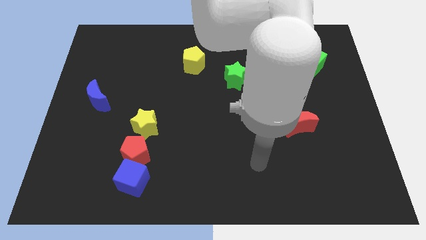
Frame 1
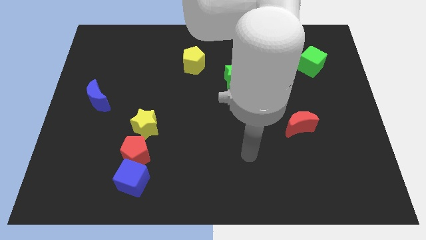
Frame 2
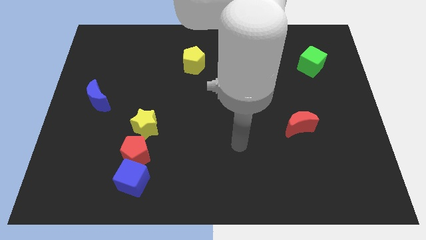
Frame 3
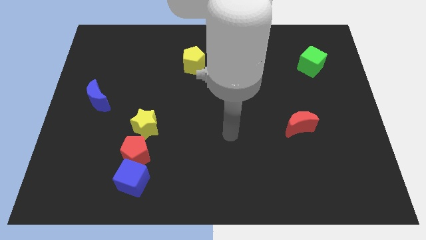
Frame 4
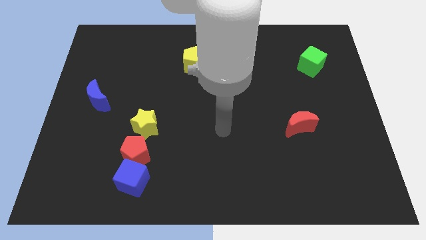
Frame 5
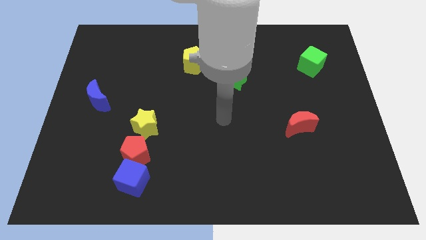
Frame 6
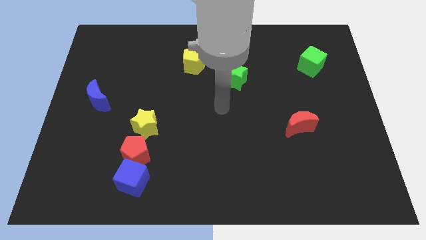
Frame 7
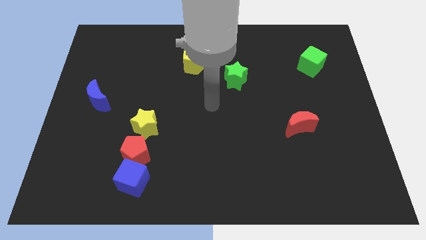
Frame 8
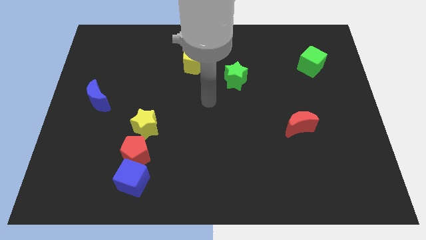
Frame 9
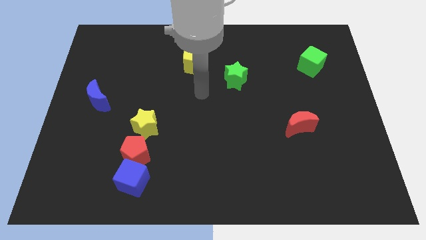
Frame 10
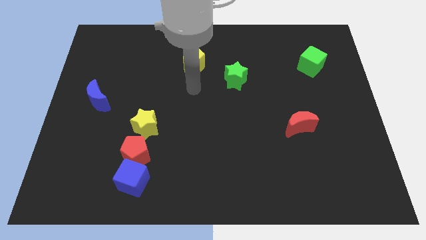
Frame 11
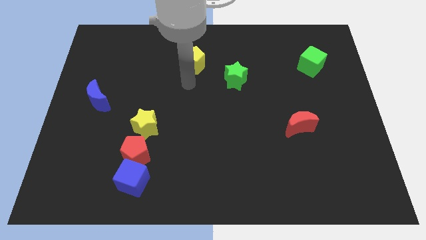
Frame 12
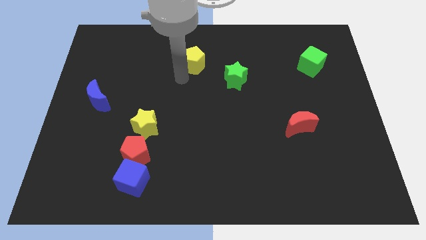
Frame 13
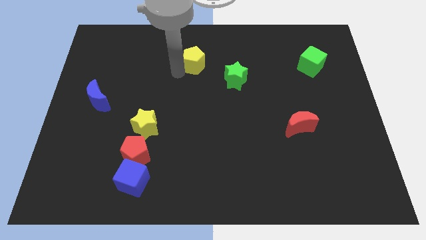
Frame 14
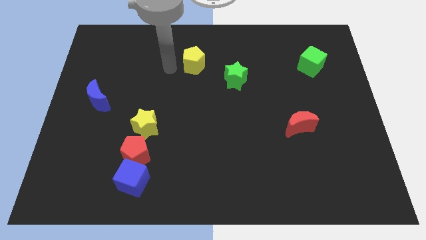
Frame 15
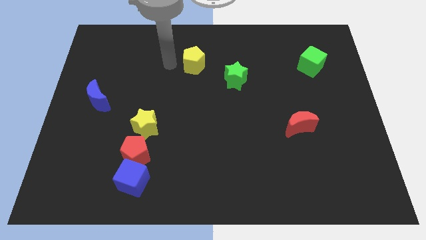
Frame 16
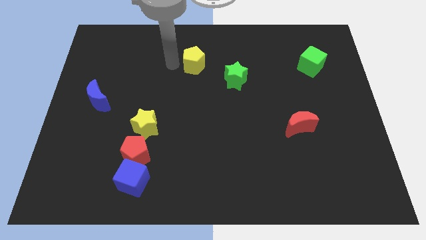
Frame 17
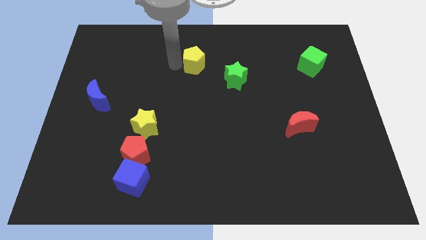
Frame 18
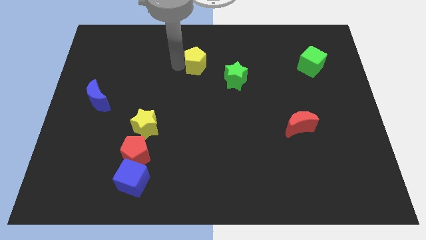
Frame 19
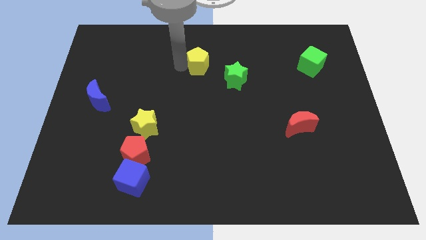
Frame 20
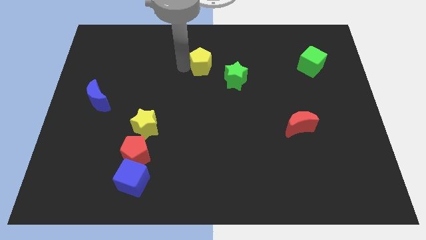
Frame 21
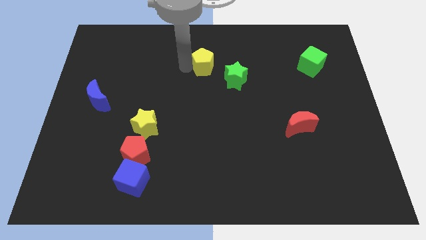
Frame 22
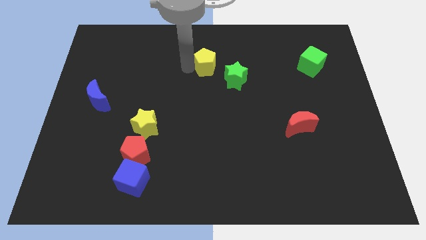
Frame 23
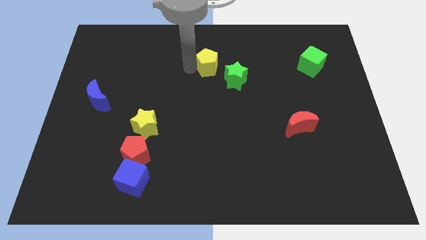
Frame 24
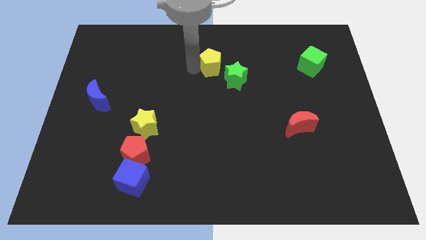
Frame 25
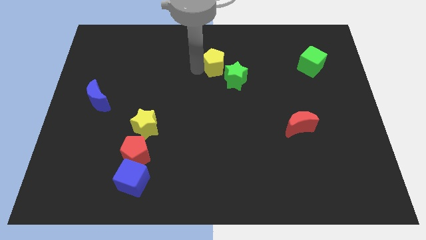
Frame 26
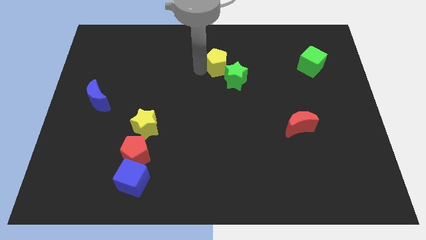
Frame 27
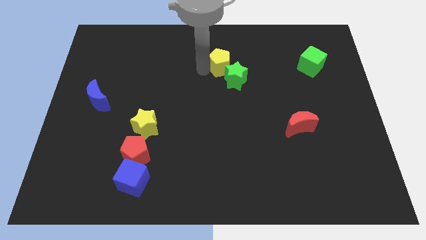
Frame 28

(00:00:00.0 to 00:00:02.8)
push the yellow pentagon a little right

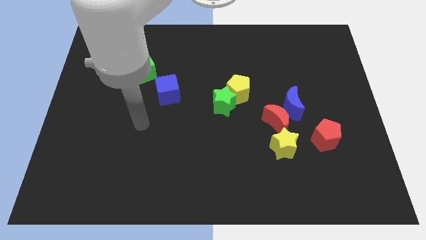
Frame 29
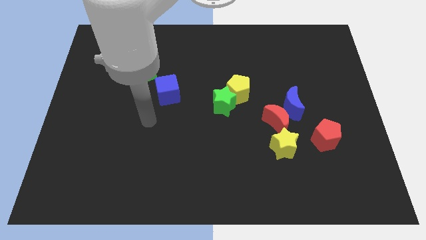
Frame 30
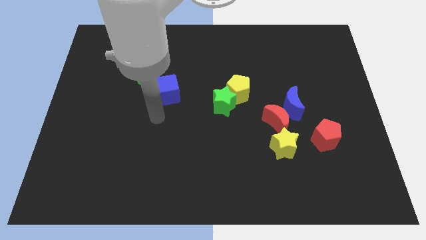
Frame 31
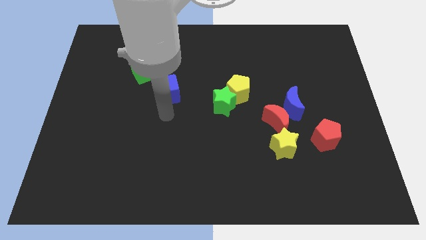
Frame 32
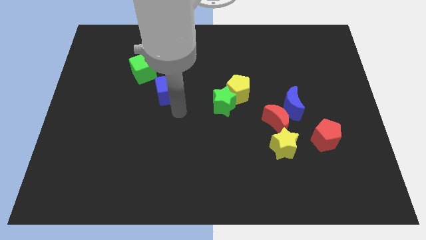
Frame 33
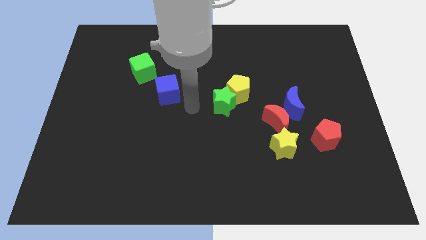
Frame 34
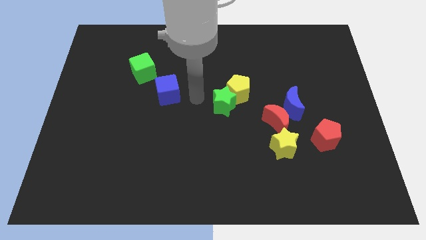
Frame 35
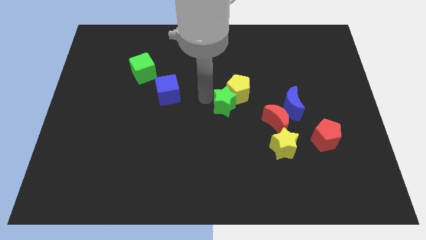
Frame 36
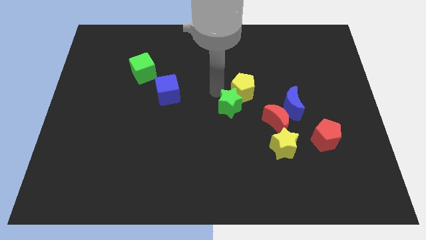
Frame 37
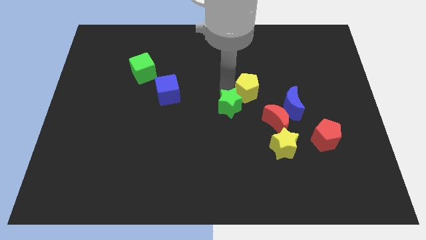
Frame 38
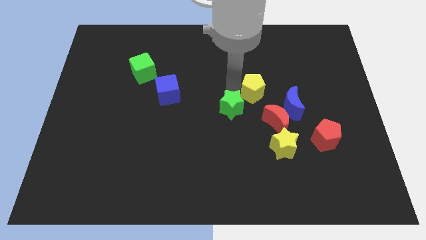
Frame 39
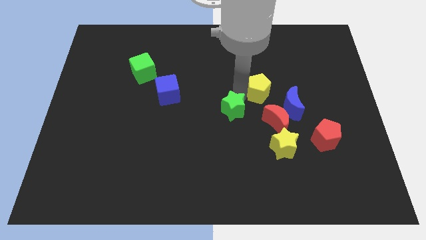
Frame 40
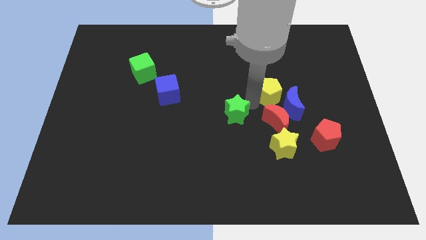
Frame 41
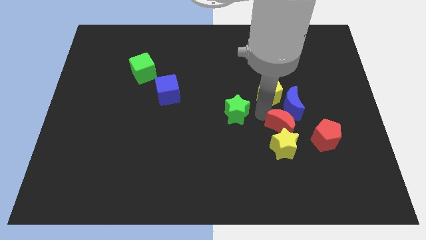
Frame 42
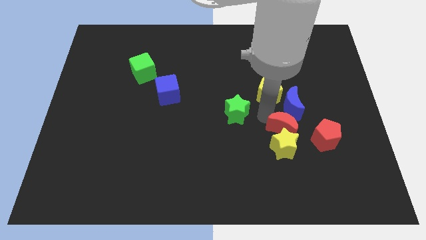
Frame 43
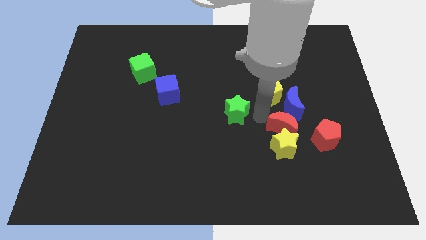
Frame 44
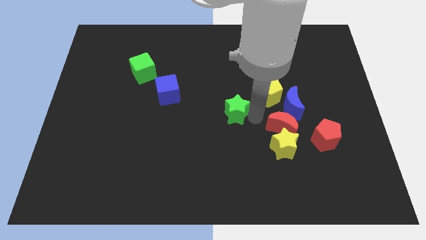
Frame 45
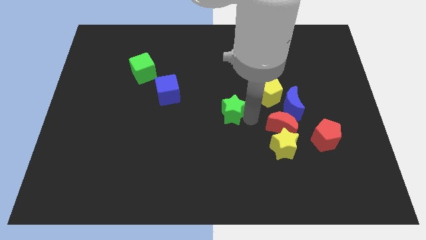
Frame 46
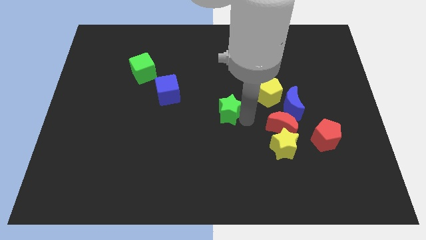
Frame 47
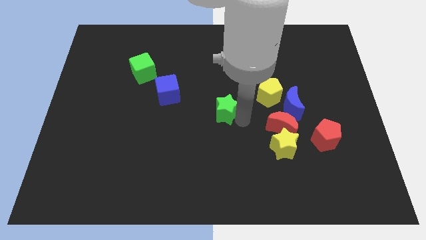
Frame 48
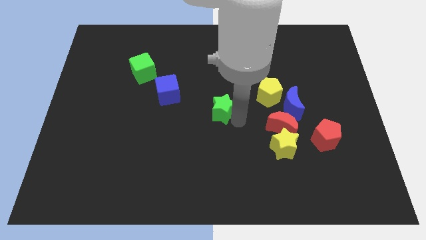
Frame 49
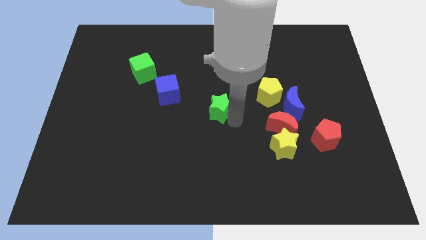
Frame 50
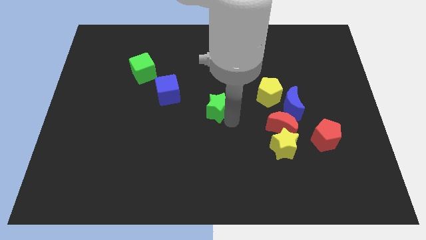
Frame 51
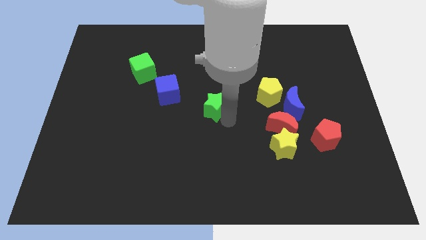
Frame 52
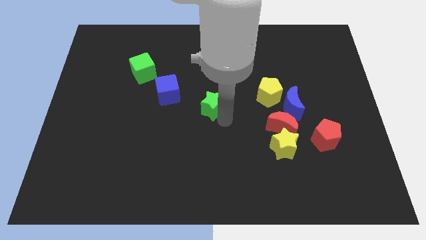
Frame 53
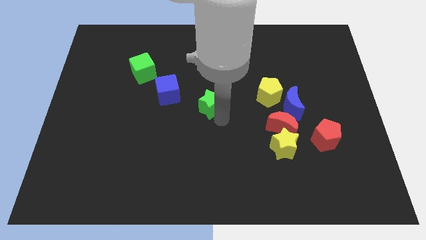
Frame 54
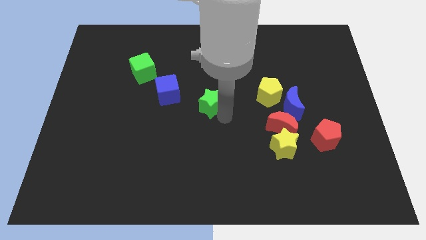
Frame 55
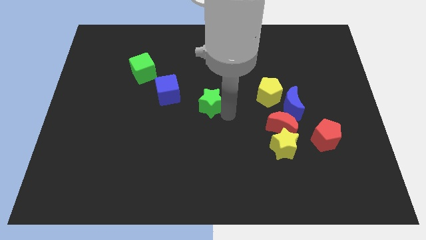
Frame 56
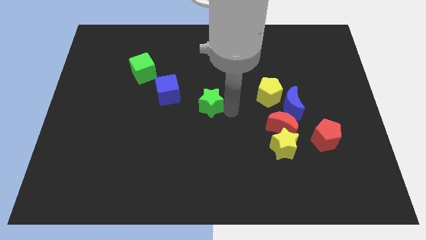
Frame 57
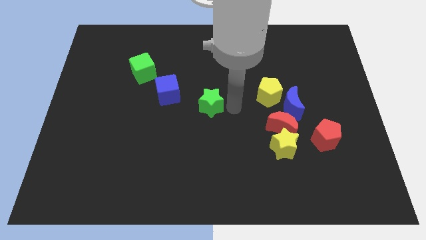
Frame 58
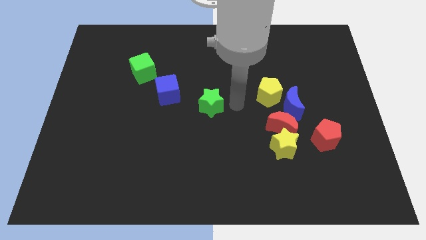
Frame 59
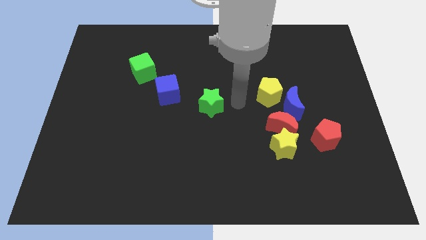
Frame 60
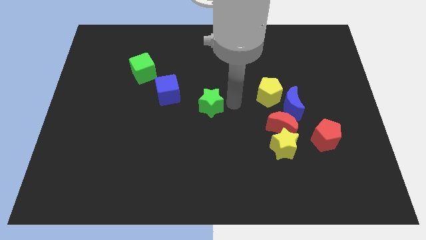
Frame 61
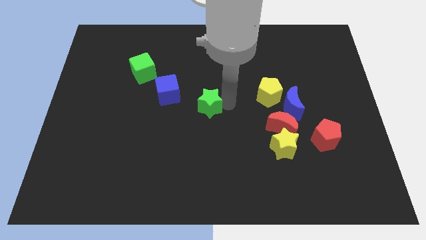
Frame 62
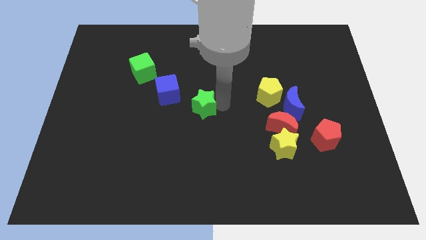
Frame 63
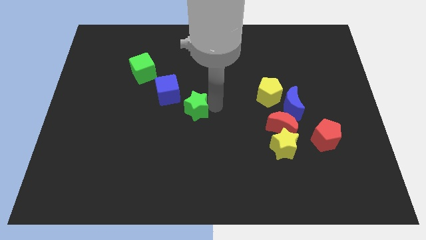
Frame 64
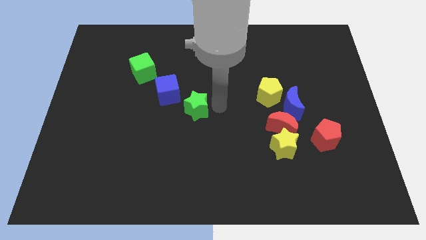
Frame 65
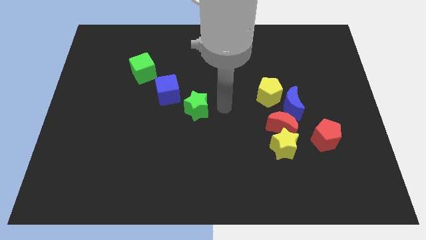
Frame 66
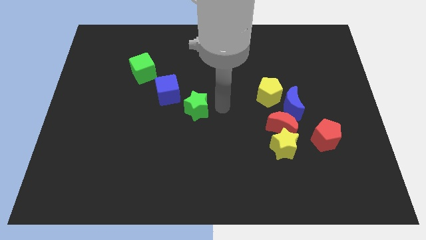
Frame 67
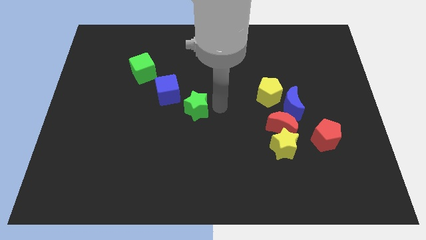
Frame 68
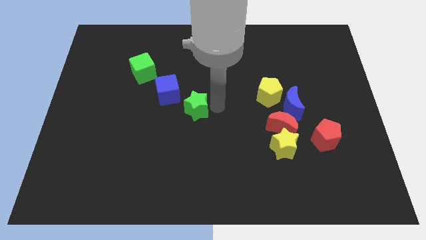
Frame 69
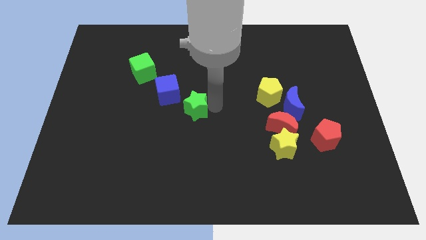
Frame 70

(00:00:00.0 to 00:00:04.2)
slightly slide the green star left

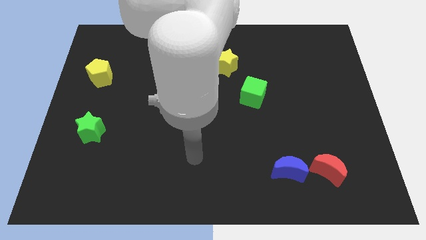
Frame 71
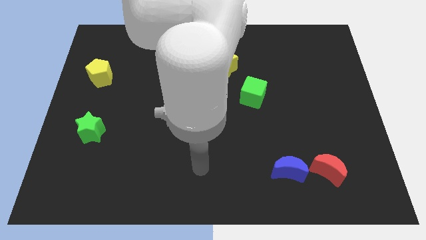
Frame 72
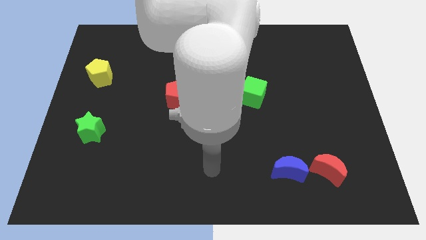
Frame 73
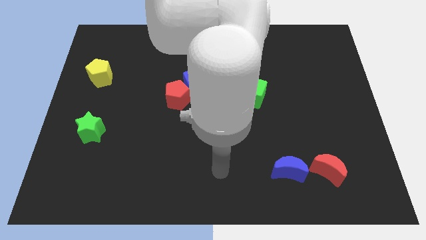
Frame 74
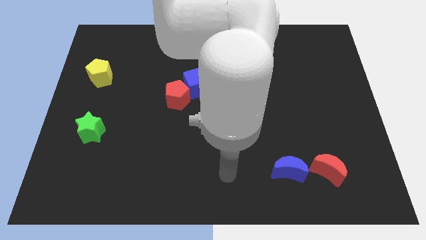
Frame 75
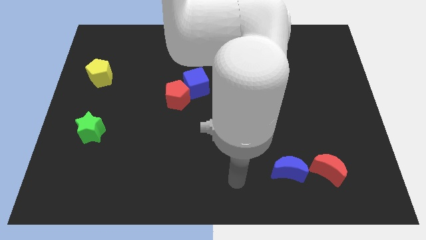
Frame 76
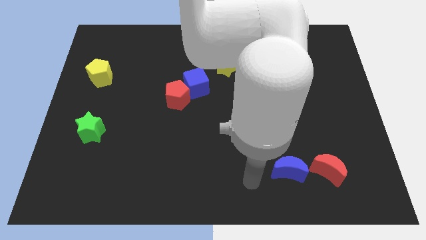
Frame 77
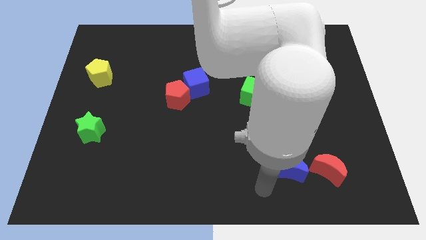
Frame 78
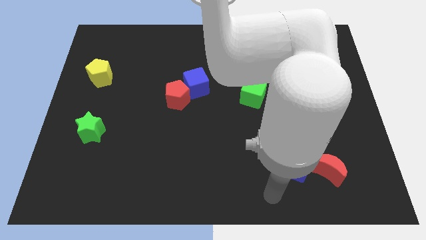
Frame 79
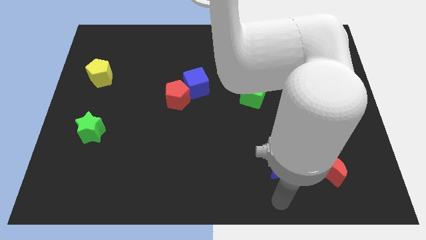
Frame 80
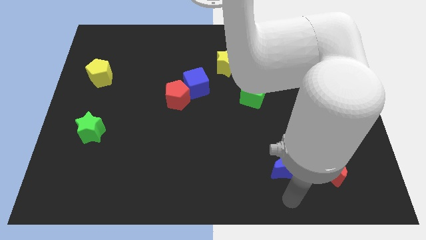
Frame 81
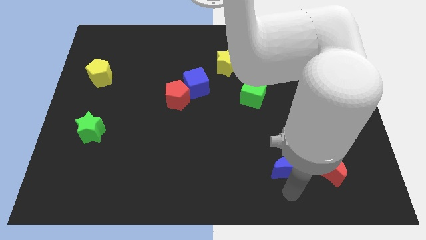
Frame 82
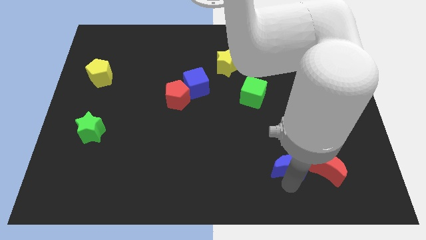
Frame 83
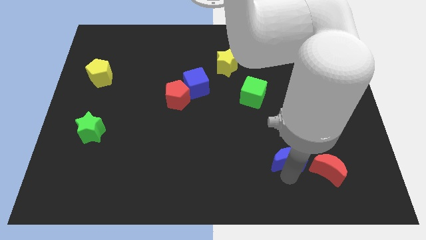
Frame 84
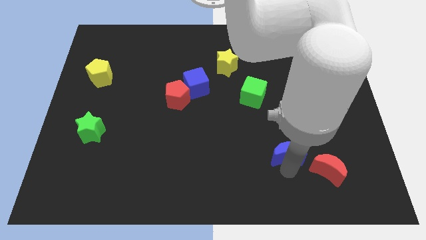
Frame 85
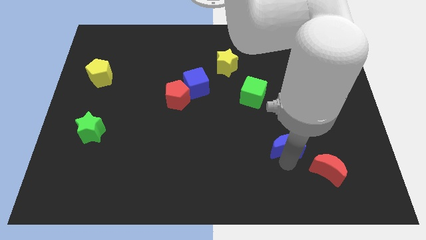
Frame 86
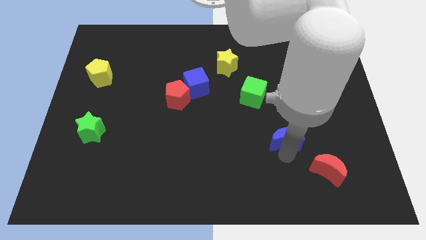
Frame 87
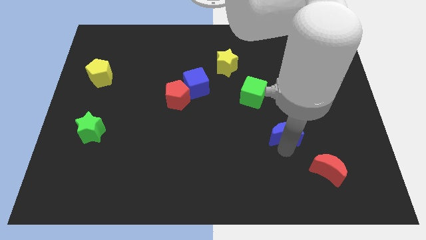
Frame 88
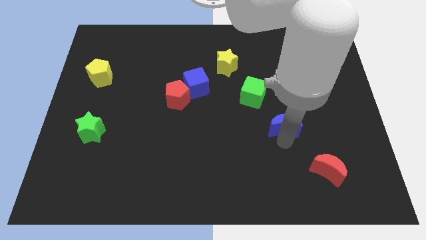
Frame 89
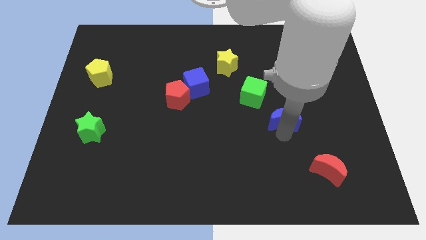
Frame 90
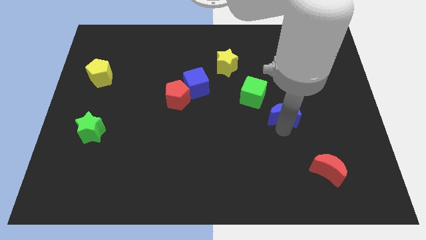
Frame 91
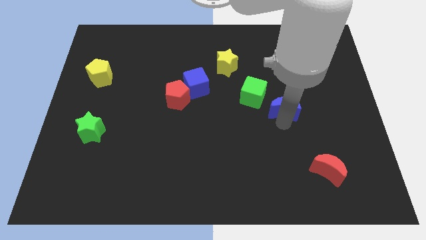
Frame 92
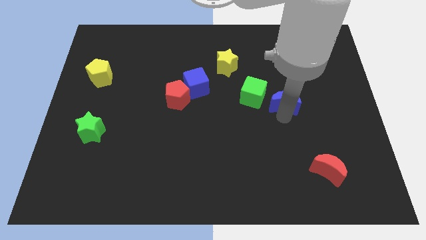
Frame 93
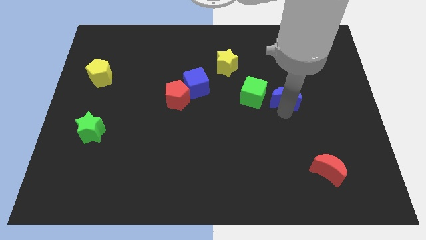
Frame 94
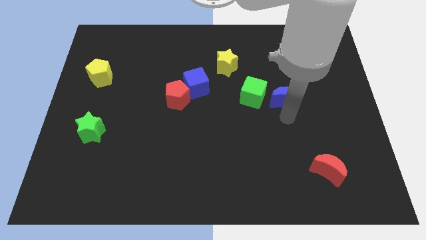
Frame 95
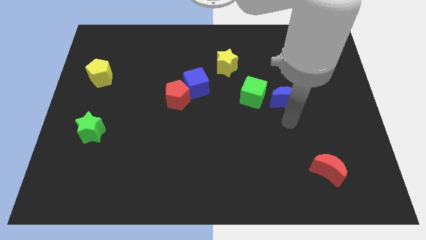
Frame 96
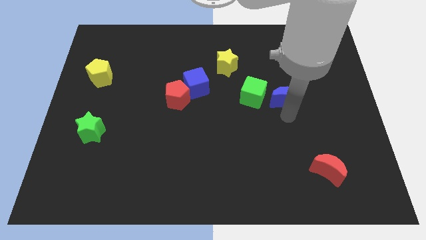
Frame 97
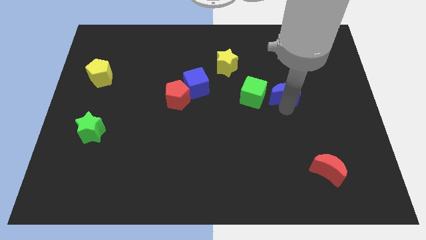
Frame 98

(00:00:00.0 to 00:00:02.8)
move the blue moon upwards
